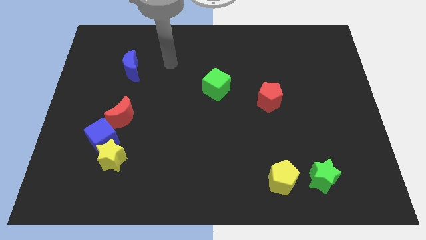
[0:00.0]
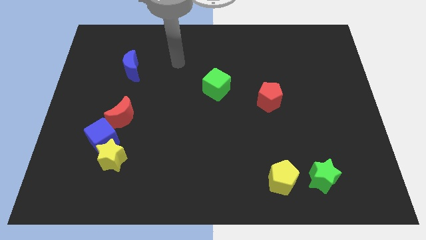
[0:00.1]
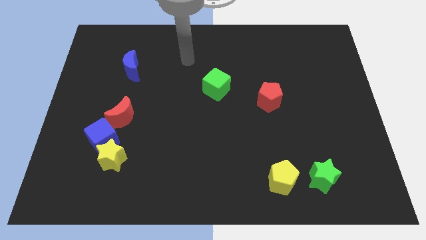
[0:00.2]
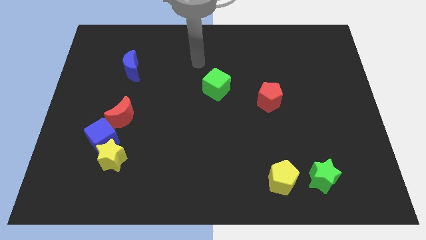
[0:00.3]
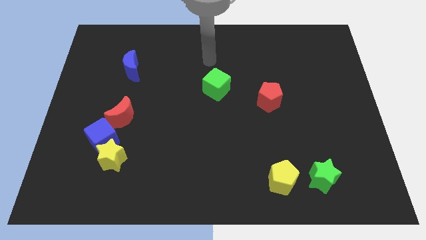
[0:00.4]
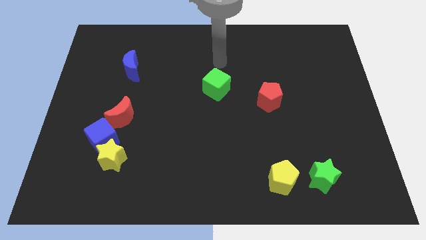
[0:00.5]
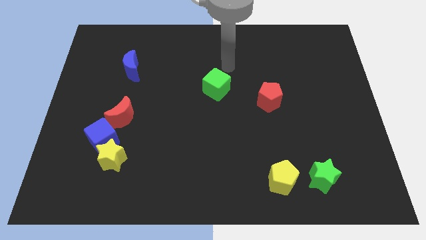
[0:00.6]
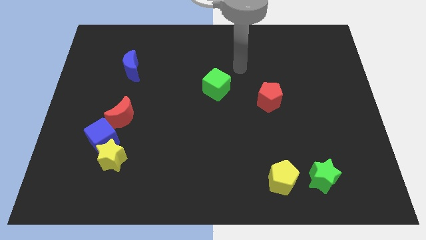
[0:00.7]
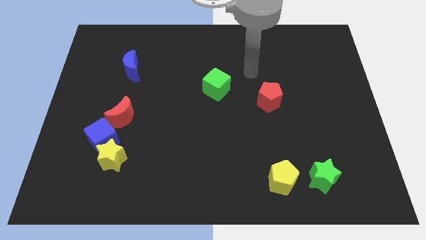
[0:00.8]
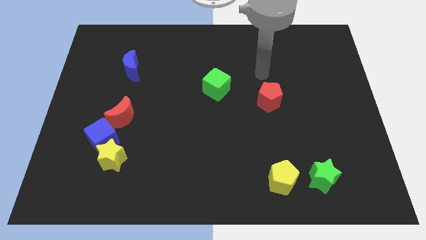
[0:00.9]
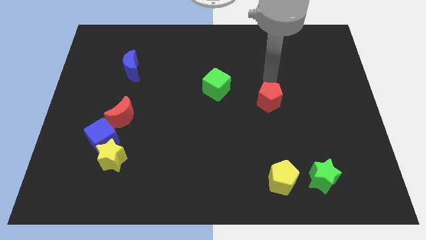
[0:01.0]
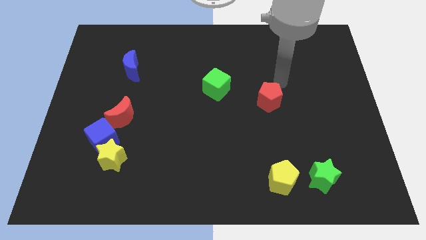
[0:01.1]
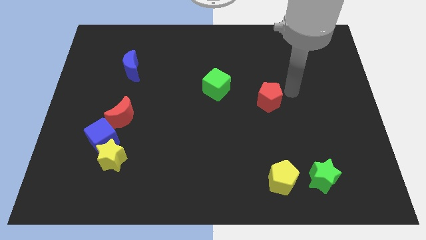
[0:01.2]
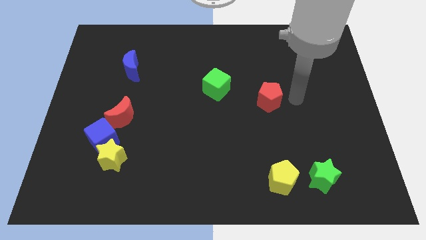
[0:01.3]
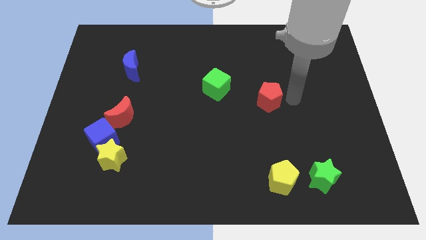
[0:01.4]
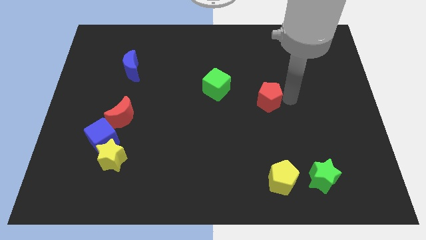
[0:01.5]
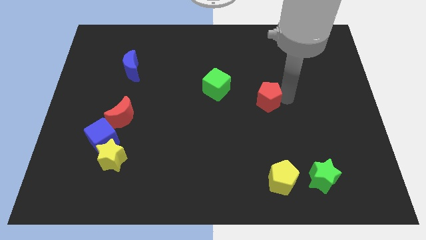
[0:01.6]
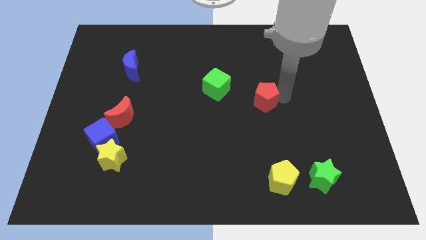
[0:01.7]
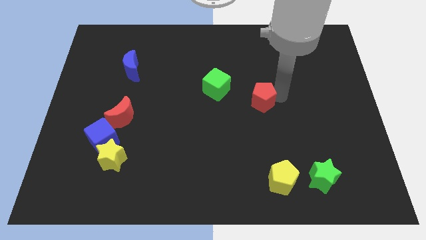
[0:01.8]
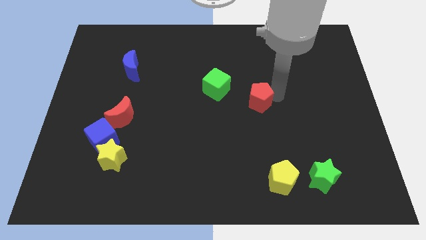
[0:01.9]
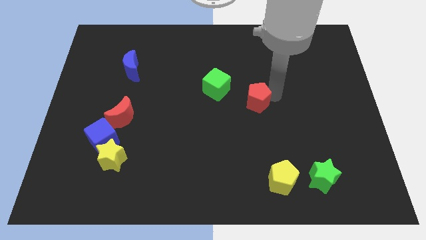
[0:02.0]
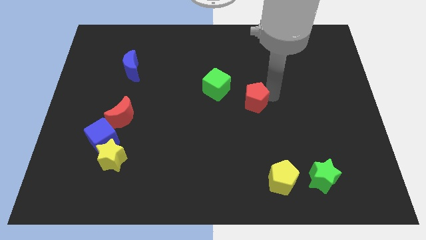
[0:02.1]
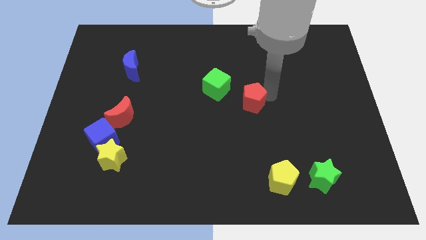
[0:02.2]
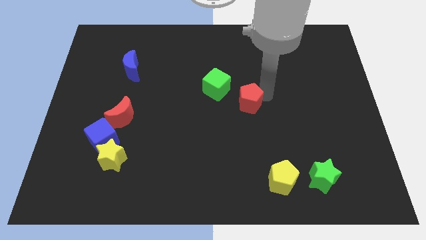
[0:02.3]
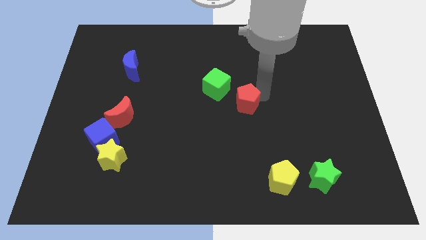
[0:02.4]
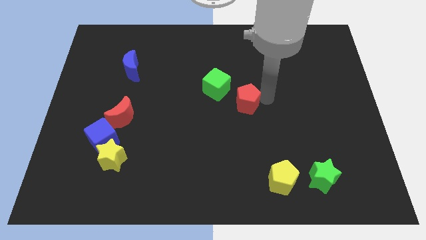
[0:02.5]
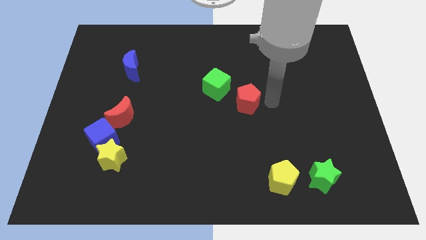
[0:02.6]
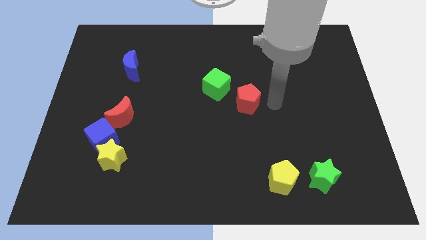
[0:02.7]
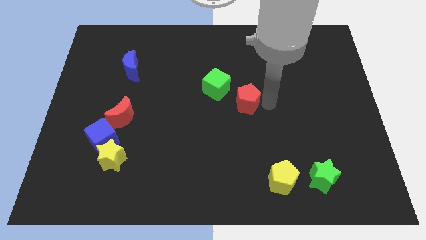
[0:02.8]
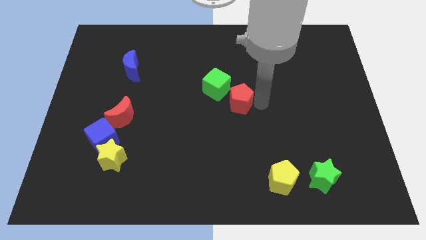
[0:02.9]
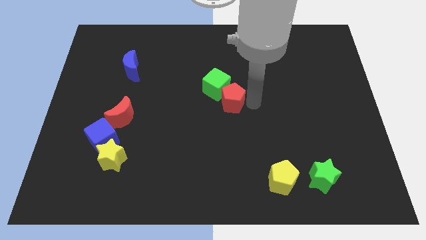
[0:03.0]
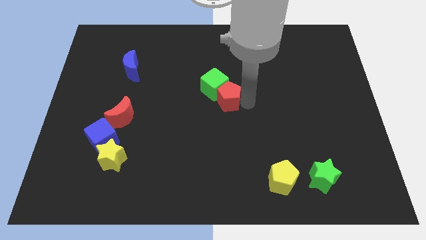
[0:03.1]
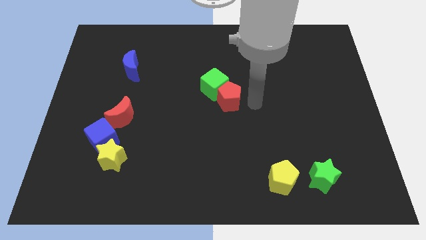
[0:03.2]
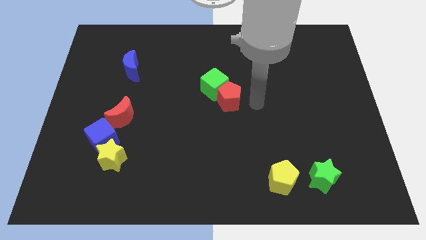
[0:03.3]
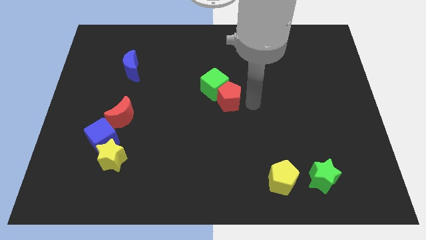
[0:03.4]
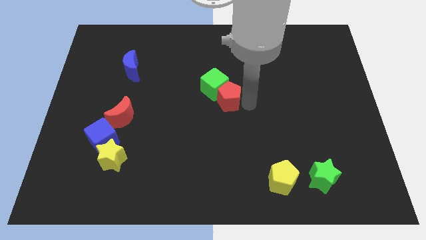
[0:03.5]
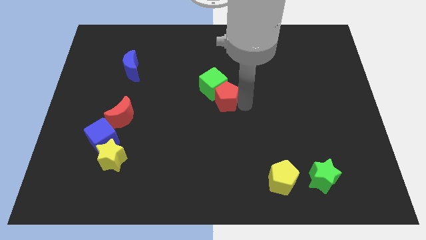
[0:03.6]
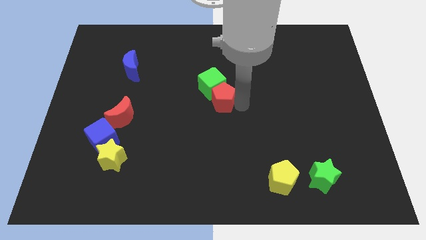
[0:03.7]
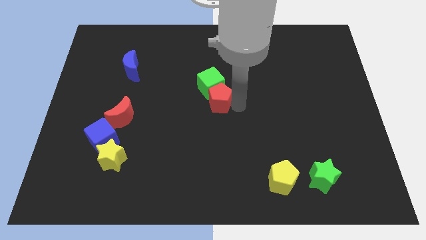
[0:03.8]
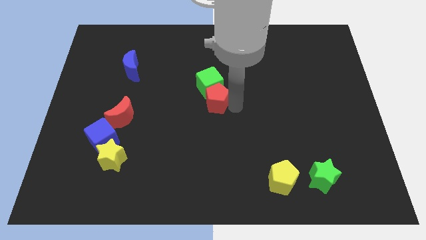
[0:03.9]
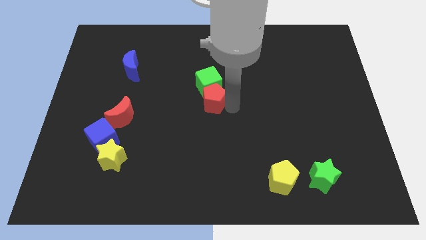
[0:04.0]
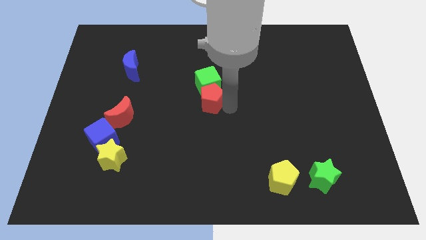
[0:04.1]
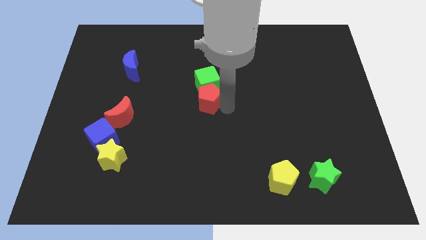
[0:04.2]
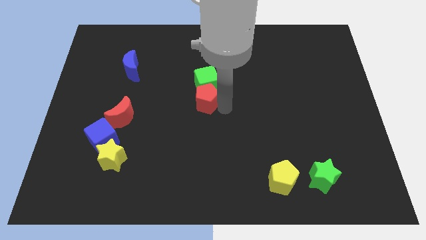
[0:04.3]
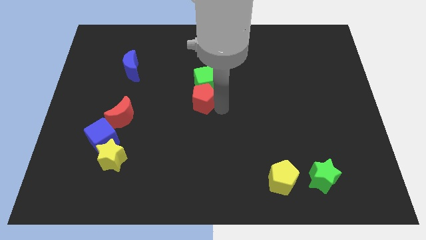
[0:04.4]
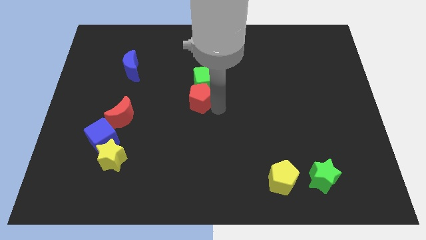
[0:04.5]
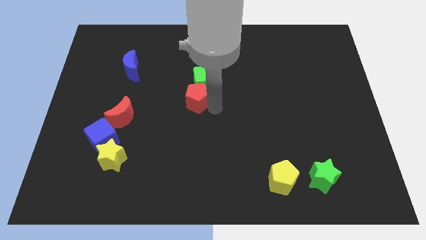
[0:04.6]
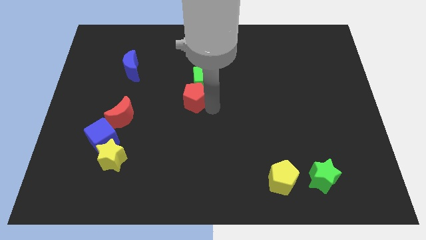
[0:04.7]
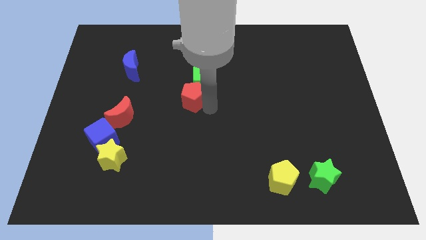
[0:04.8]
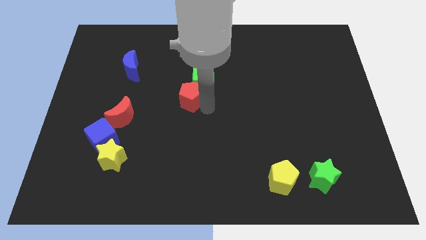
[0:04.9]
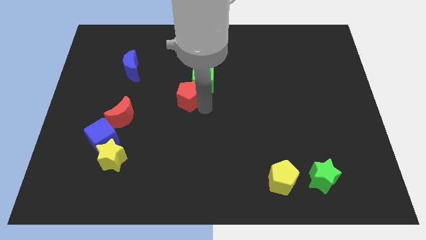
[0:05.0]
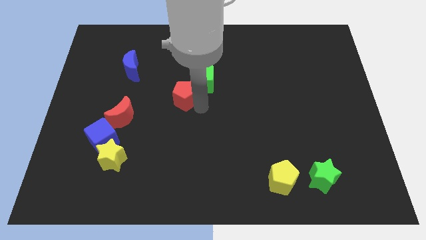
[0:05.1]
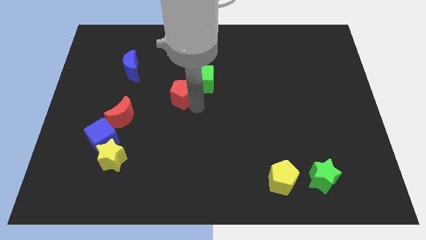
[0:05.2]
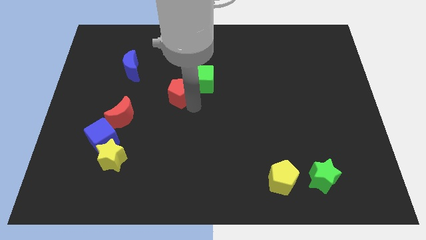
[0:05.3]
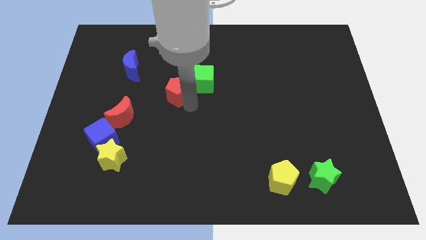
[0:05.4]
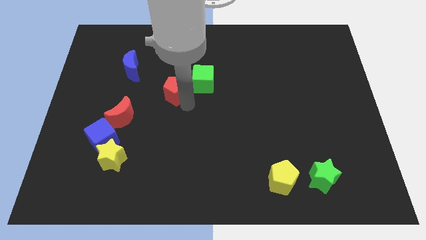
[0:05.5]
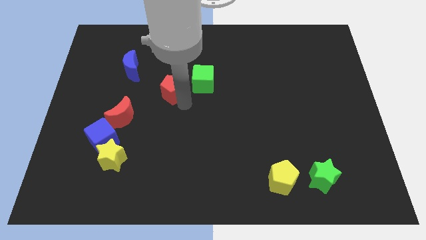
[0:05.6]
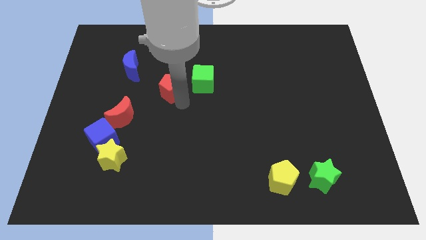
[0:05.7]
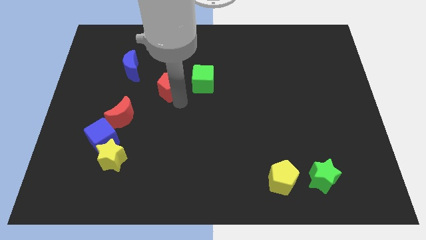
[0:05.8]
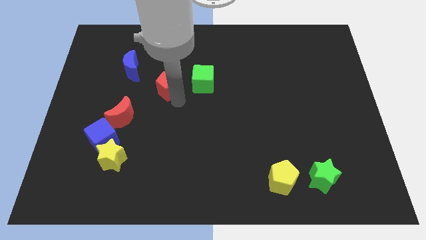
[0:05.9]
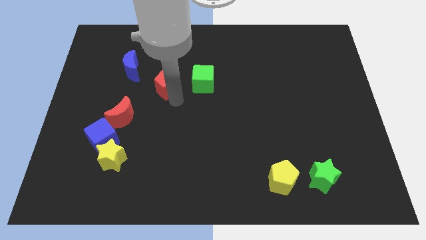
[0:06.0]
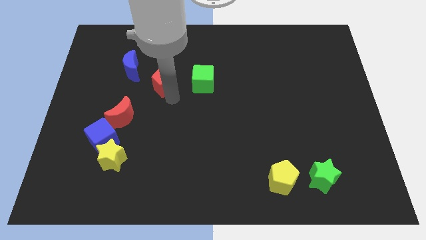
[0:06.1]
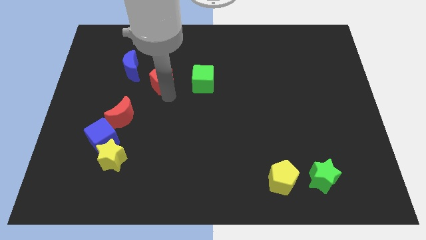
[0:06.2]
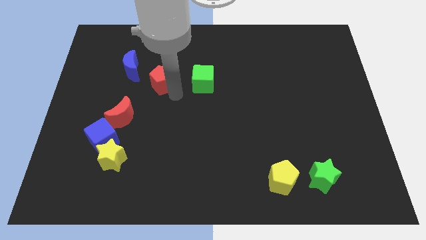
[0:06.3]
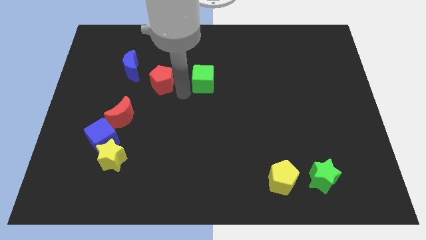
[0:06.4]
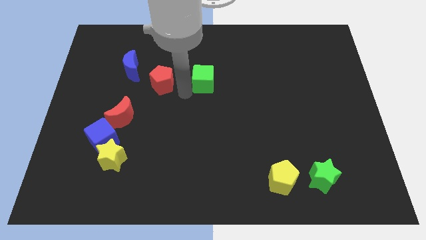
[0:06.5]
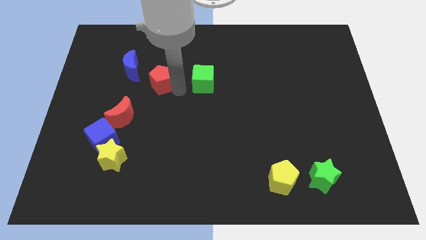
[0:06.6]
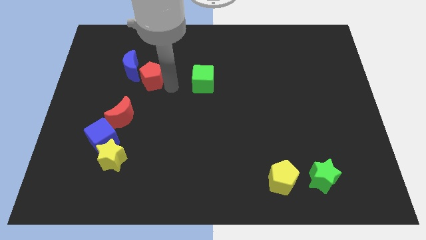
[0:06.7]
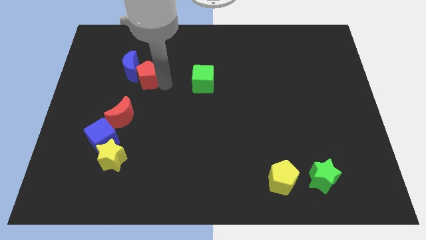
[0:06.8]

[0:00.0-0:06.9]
push the red pentagon close to the blue moon
